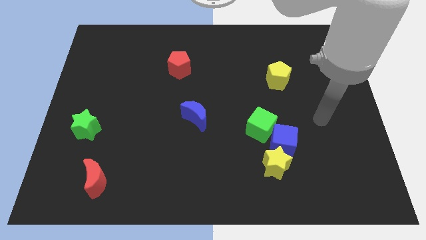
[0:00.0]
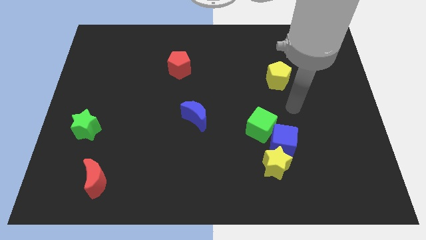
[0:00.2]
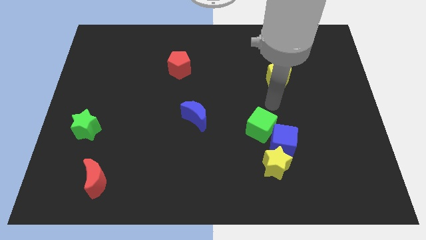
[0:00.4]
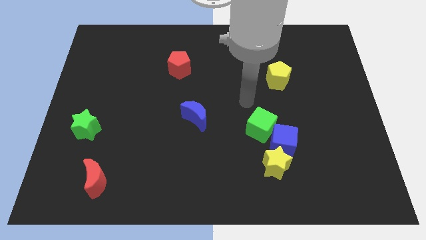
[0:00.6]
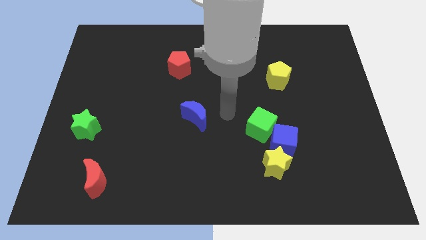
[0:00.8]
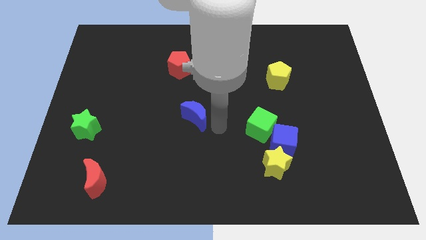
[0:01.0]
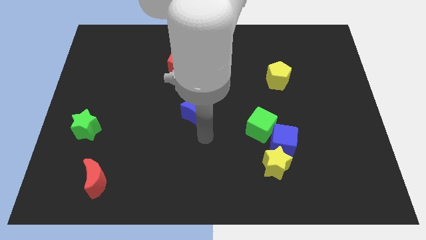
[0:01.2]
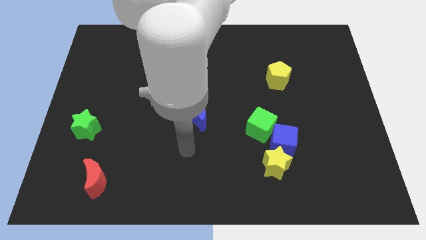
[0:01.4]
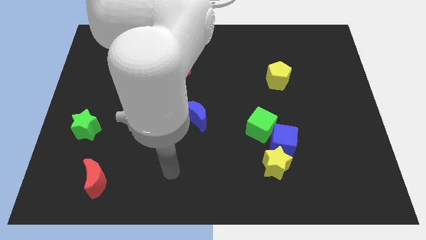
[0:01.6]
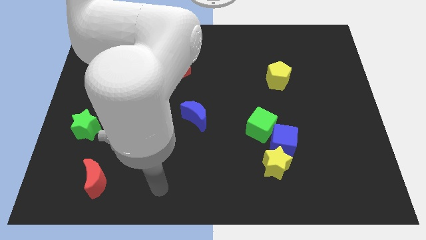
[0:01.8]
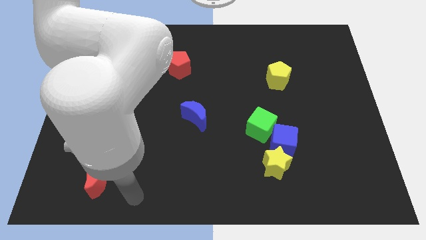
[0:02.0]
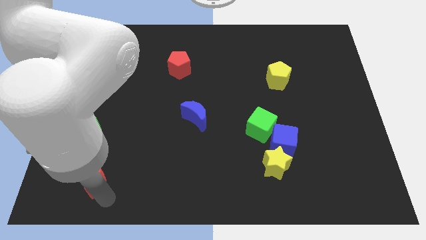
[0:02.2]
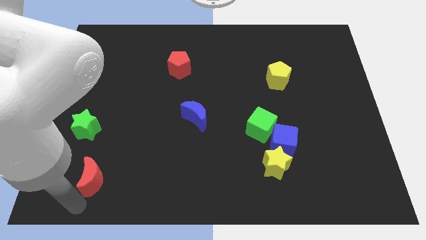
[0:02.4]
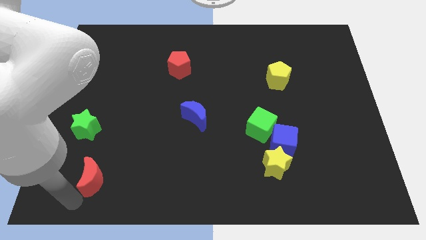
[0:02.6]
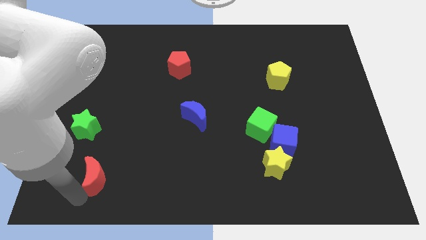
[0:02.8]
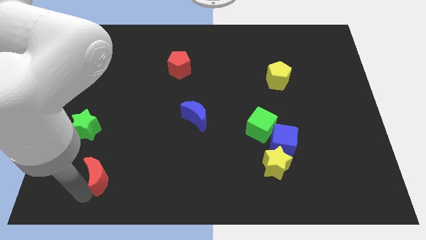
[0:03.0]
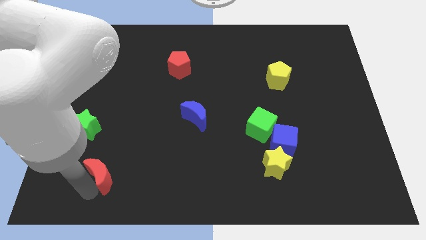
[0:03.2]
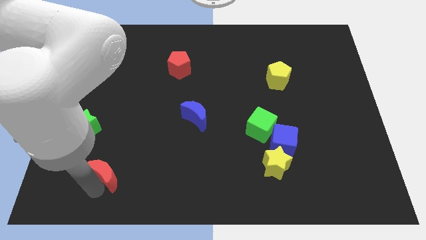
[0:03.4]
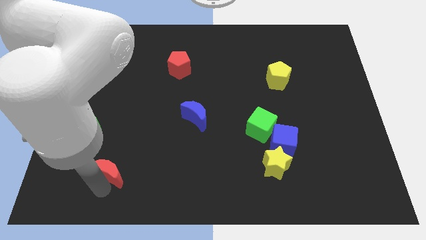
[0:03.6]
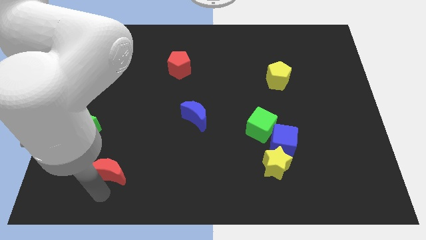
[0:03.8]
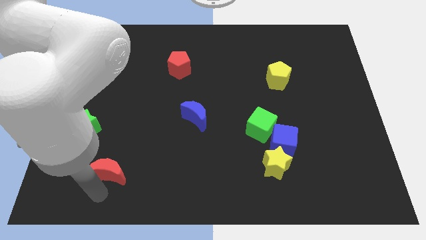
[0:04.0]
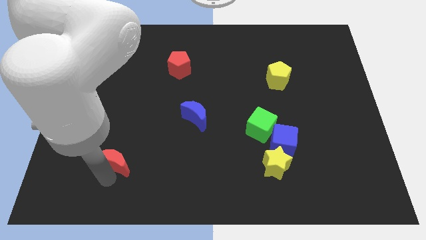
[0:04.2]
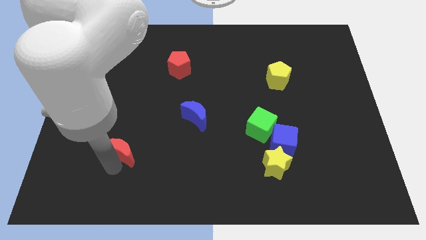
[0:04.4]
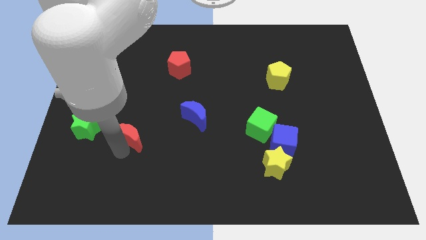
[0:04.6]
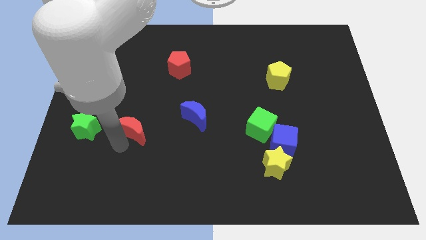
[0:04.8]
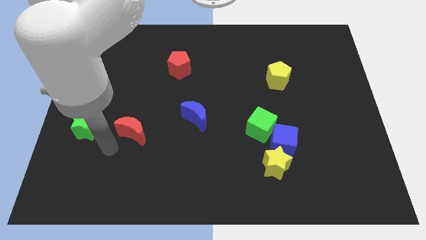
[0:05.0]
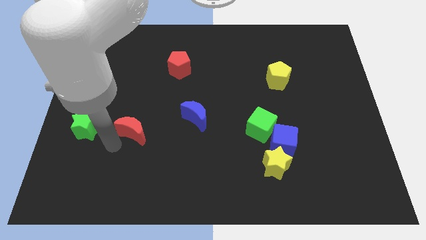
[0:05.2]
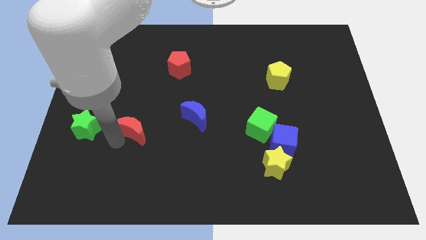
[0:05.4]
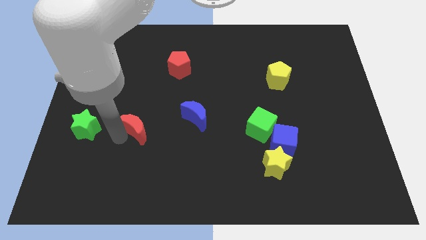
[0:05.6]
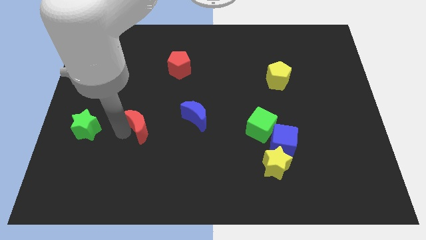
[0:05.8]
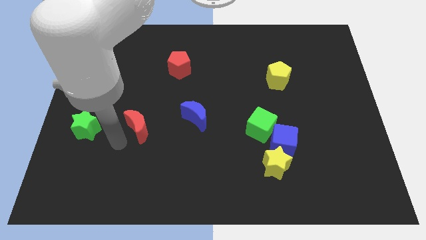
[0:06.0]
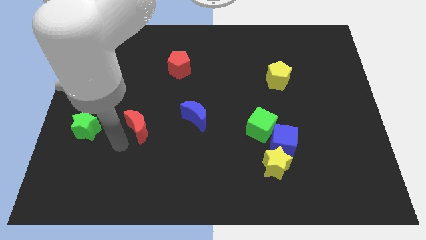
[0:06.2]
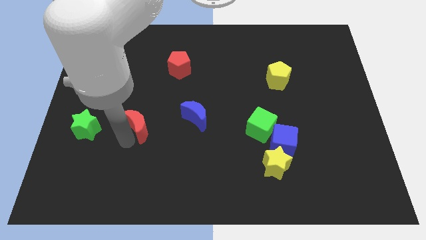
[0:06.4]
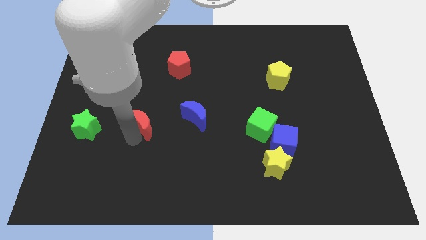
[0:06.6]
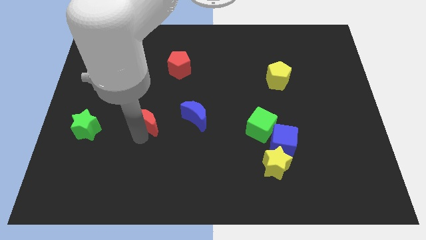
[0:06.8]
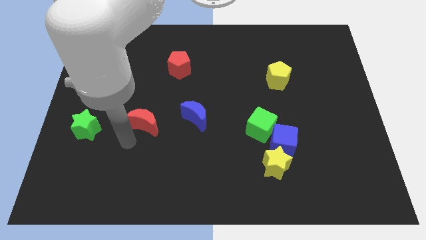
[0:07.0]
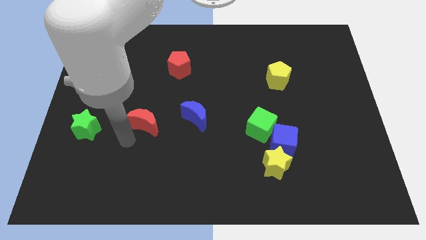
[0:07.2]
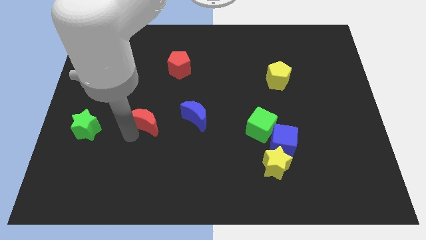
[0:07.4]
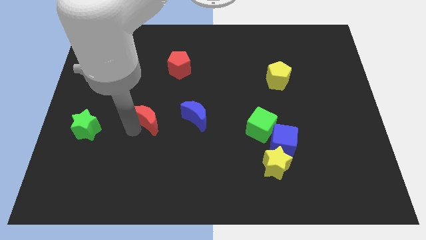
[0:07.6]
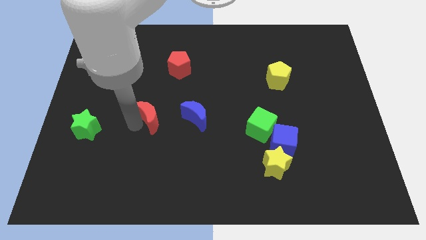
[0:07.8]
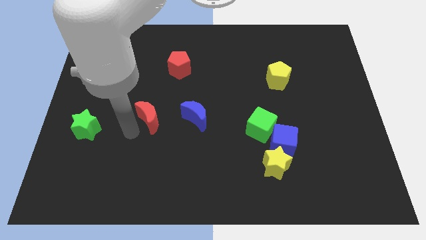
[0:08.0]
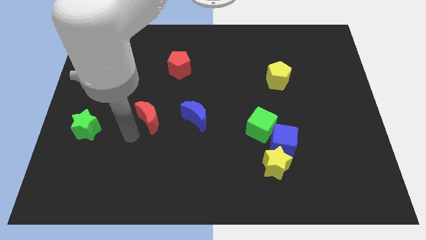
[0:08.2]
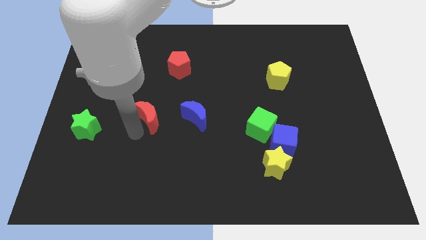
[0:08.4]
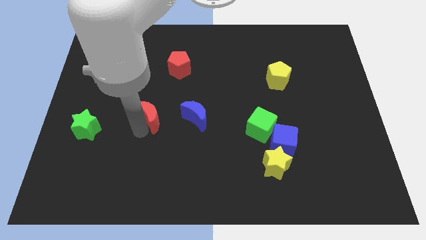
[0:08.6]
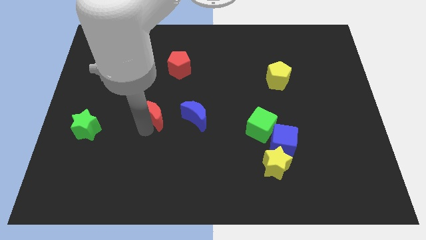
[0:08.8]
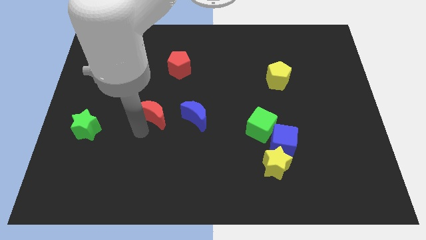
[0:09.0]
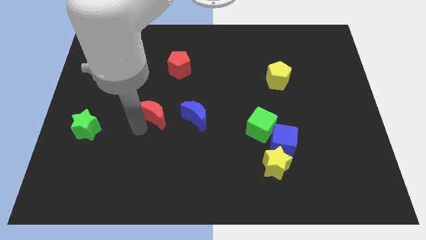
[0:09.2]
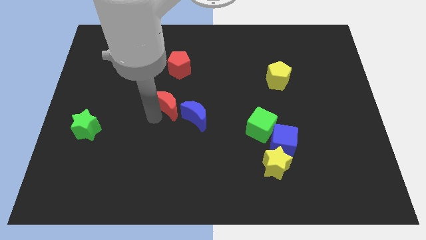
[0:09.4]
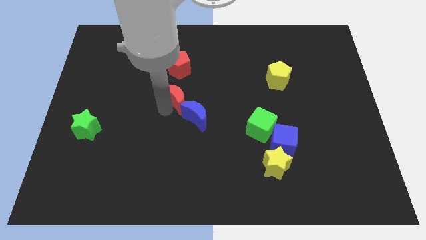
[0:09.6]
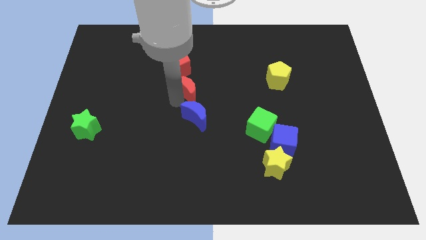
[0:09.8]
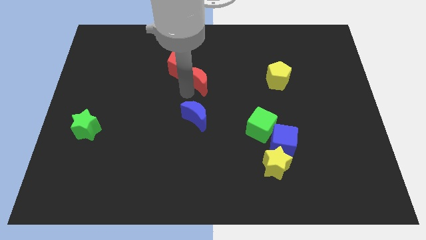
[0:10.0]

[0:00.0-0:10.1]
slide the red moon to the right side of the red pentagon

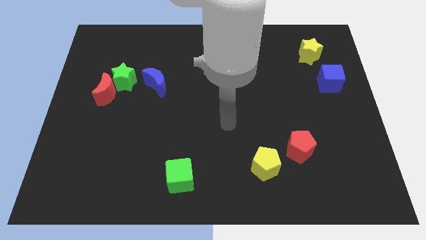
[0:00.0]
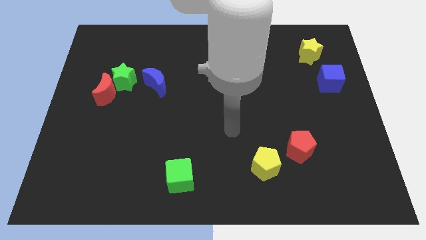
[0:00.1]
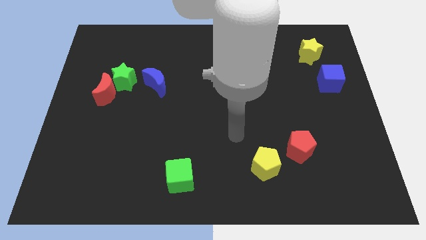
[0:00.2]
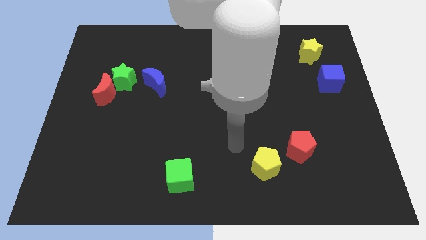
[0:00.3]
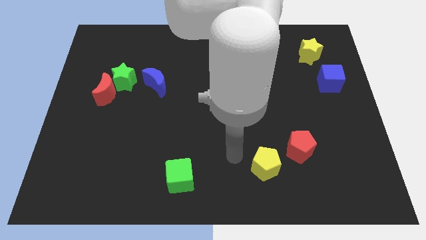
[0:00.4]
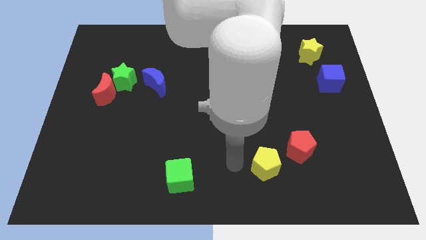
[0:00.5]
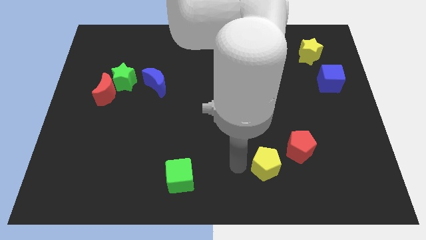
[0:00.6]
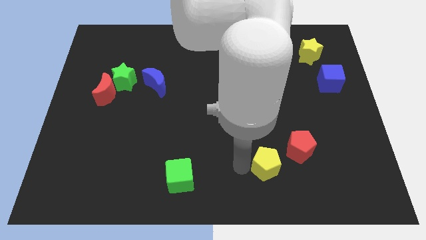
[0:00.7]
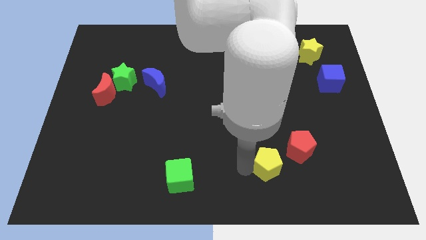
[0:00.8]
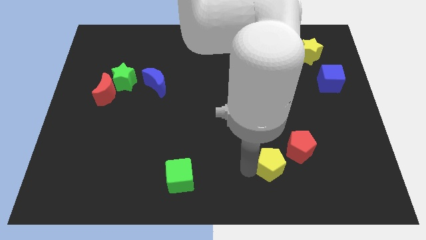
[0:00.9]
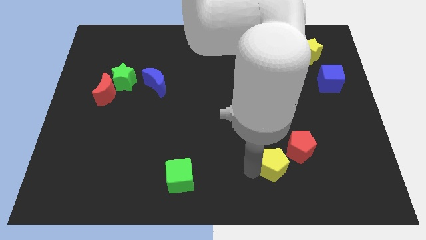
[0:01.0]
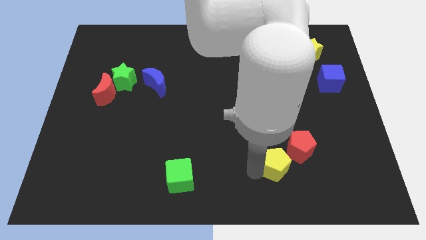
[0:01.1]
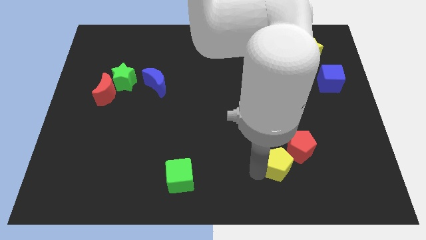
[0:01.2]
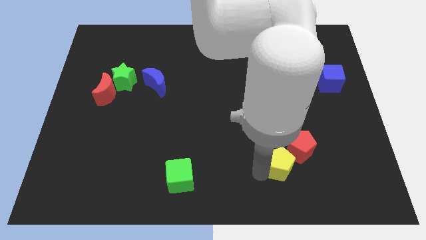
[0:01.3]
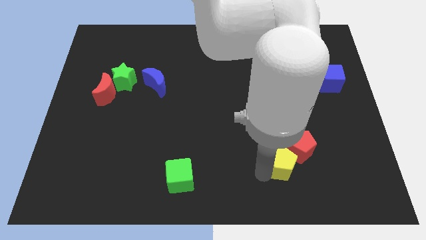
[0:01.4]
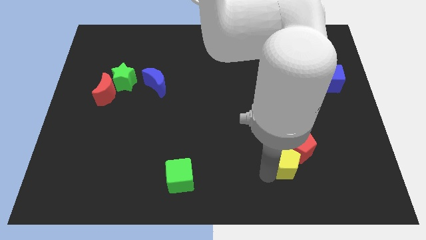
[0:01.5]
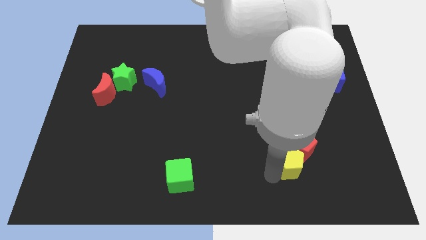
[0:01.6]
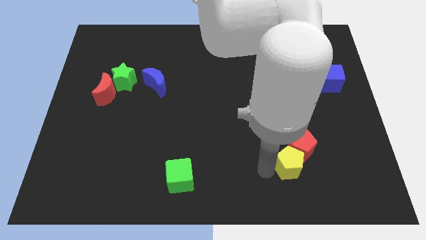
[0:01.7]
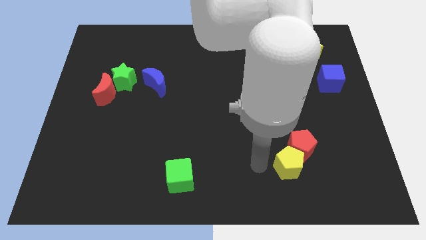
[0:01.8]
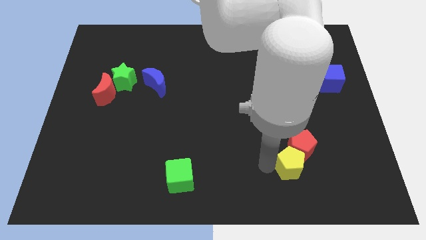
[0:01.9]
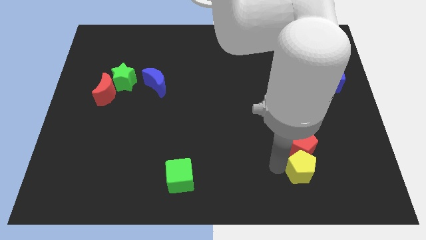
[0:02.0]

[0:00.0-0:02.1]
move the yellow pentagon to the bottom right of the red pentagon

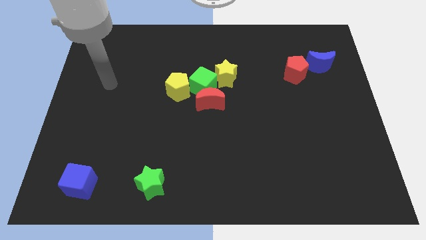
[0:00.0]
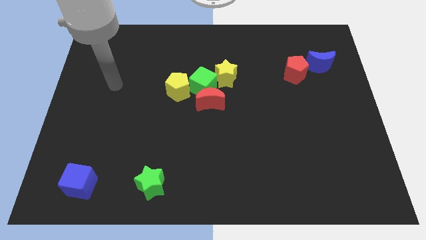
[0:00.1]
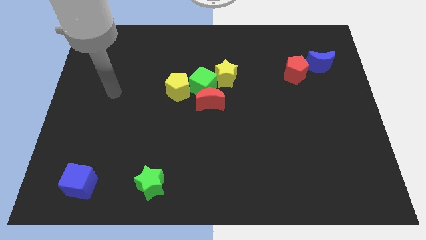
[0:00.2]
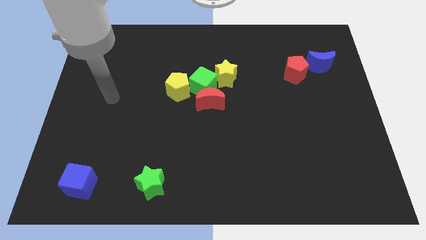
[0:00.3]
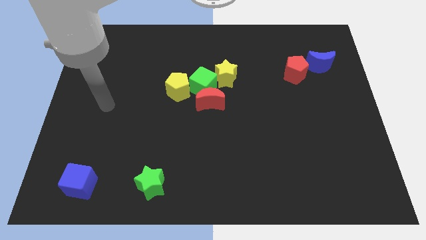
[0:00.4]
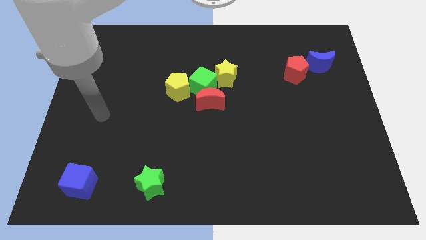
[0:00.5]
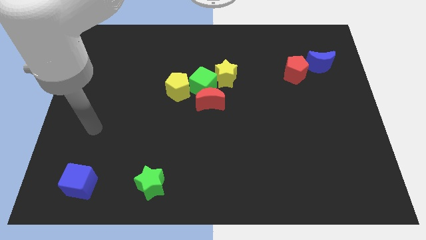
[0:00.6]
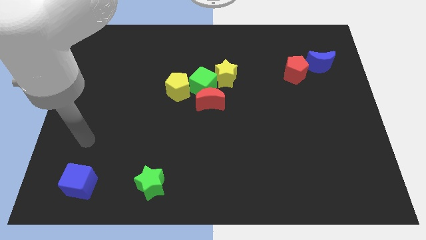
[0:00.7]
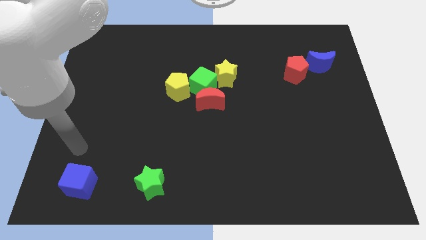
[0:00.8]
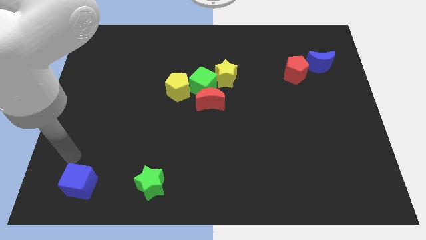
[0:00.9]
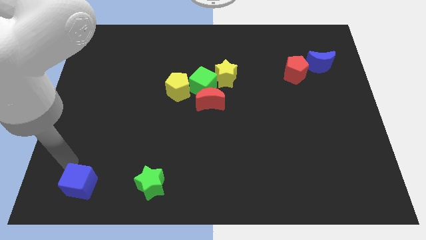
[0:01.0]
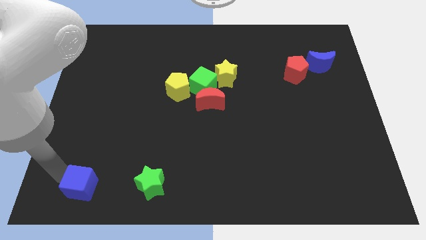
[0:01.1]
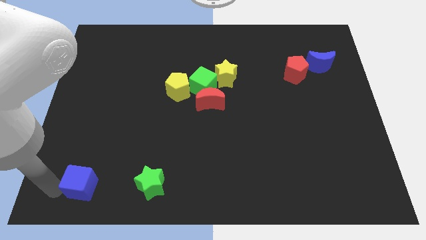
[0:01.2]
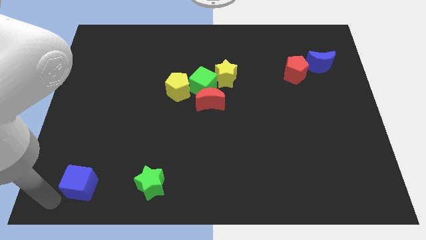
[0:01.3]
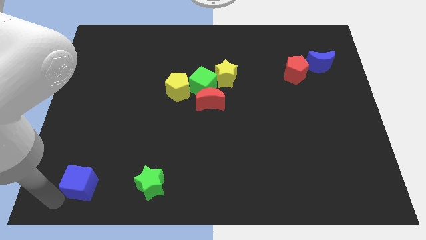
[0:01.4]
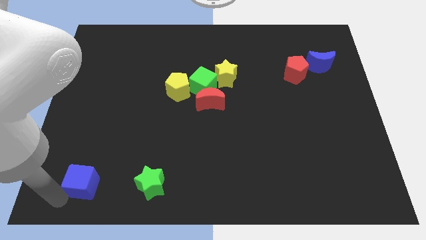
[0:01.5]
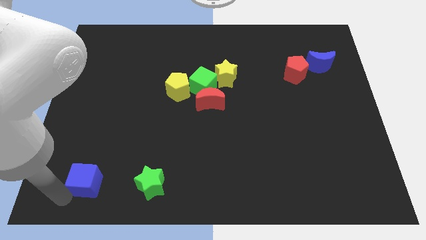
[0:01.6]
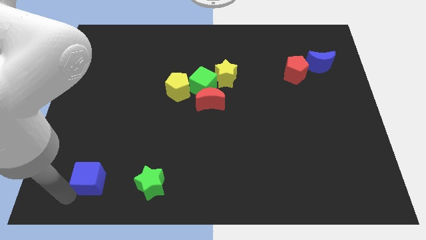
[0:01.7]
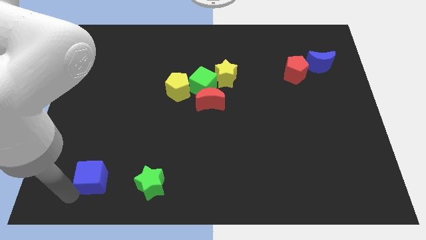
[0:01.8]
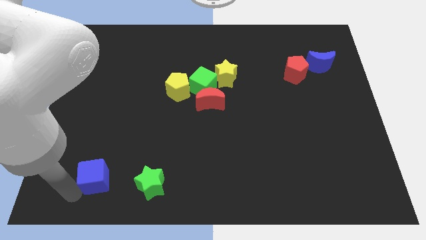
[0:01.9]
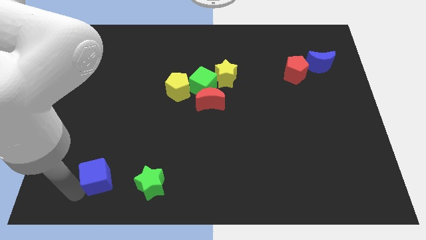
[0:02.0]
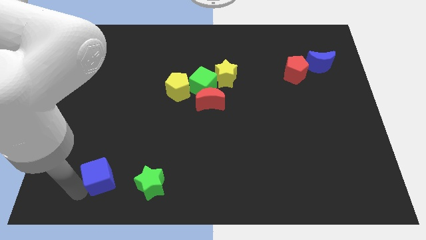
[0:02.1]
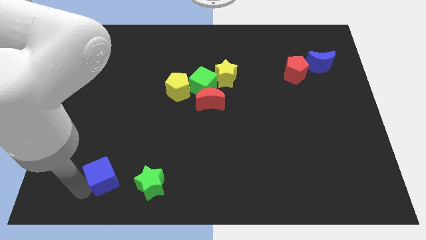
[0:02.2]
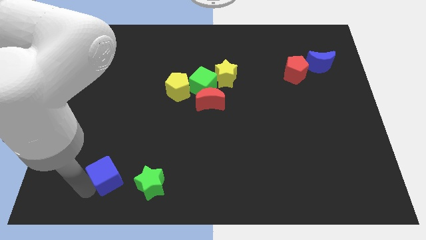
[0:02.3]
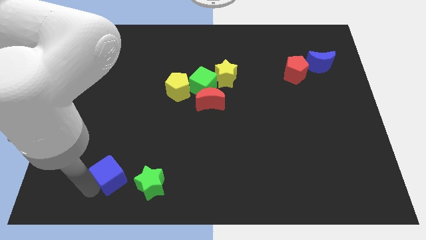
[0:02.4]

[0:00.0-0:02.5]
move the blue cube to the top left of the green star
